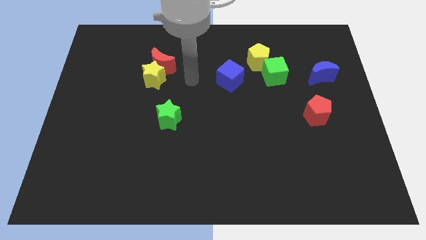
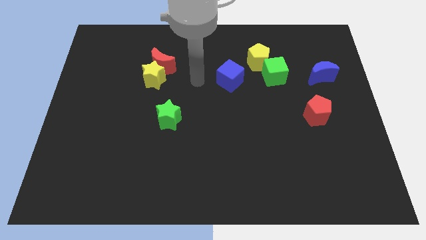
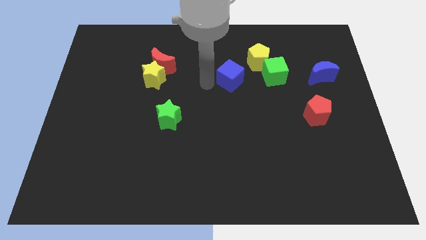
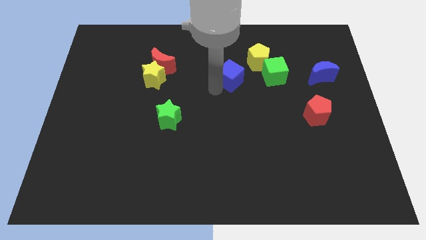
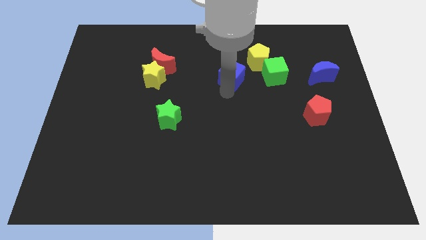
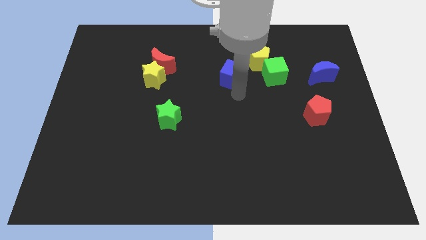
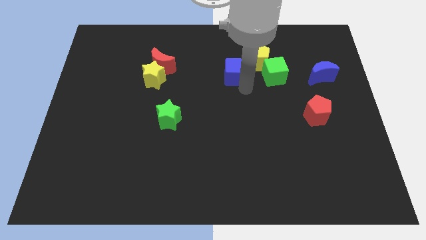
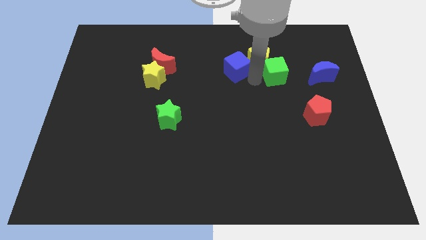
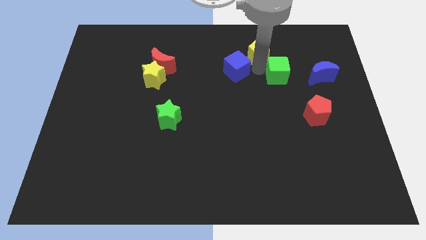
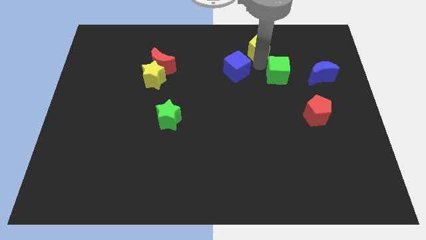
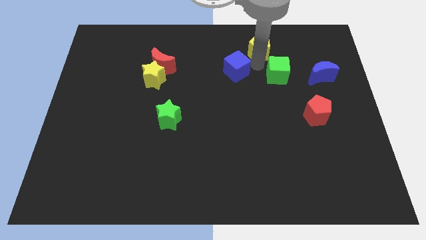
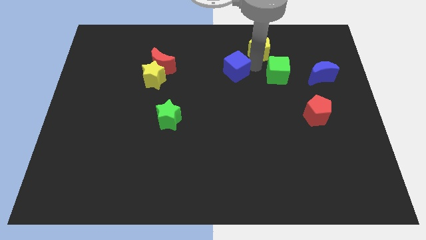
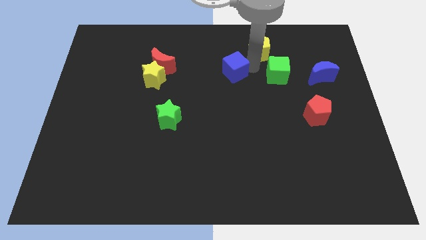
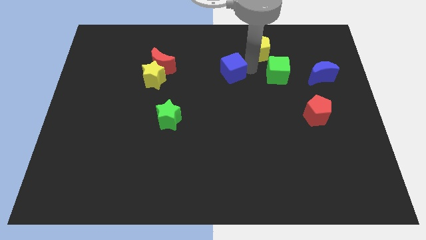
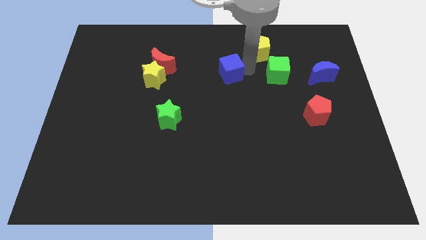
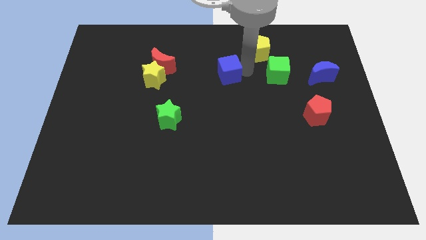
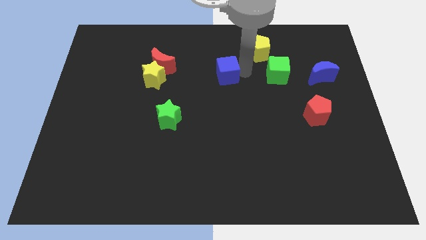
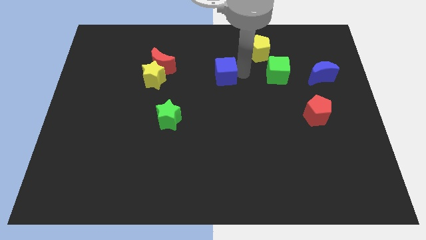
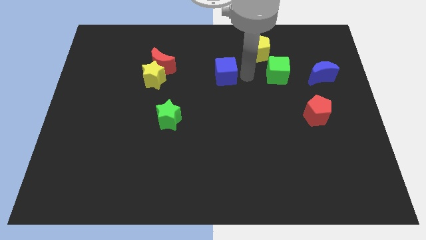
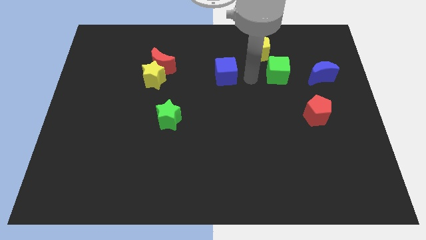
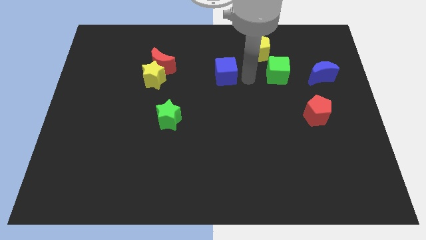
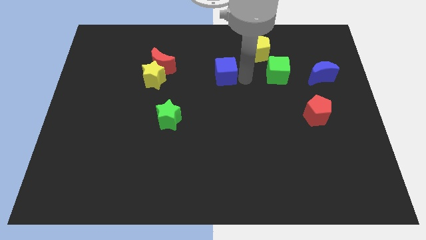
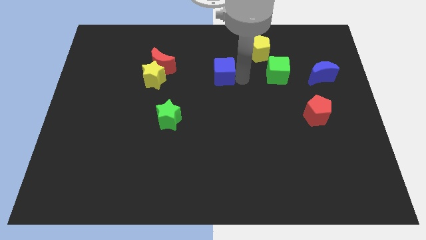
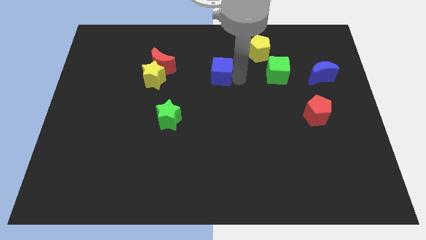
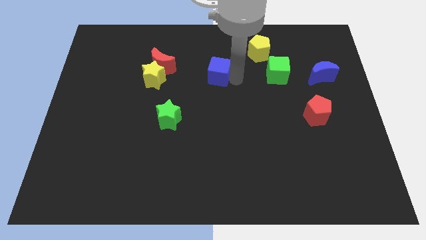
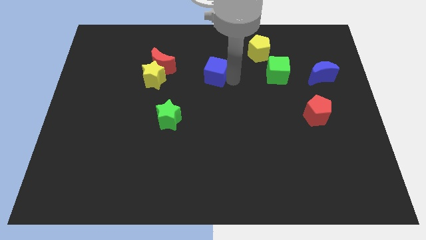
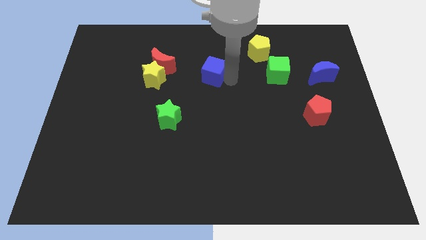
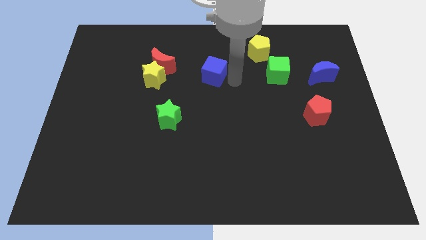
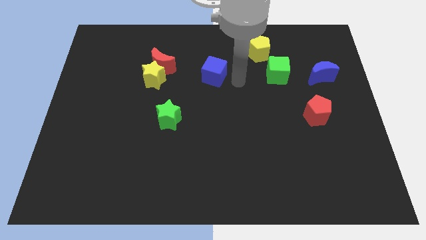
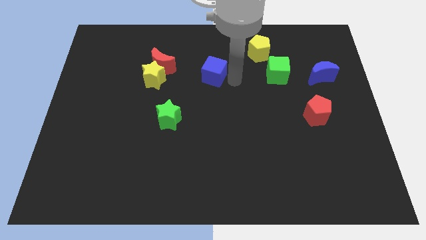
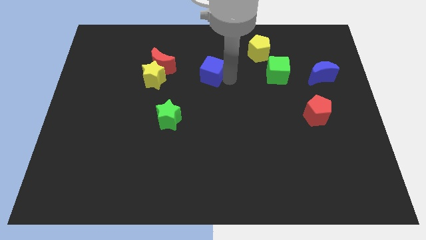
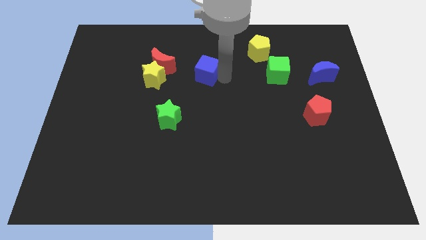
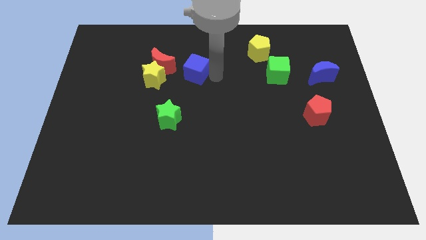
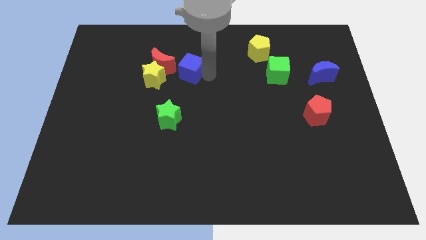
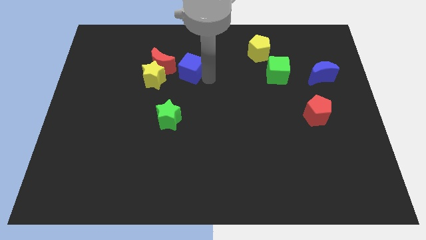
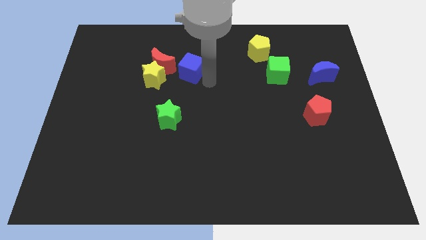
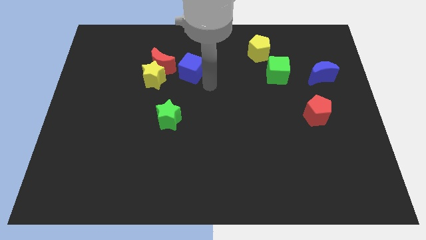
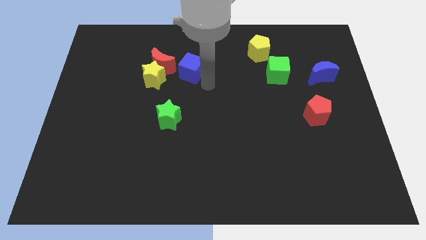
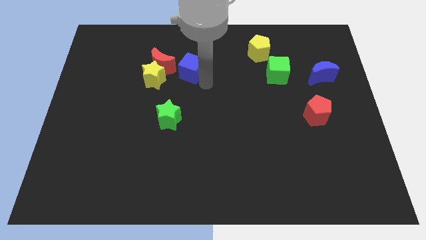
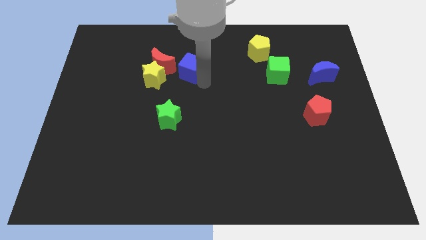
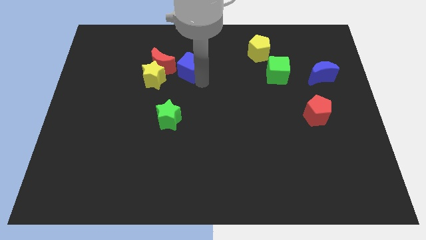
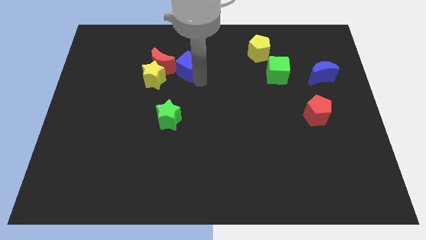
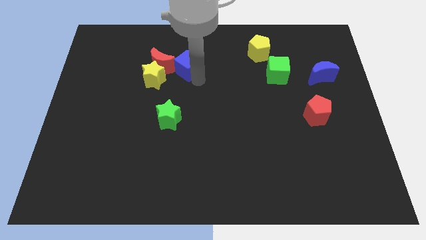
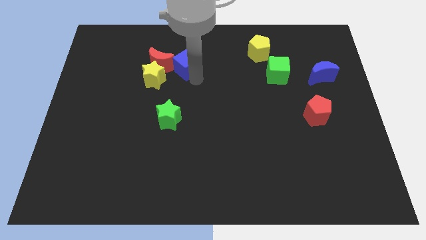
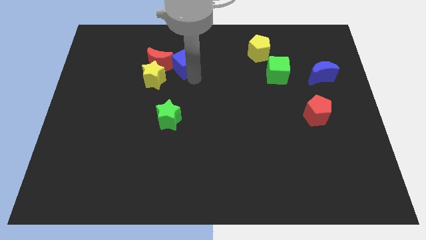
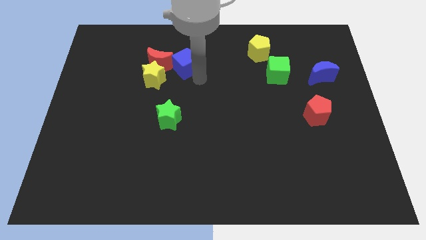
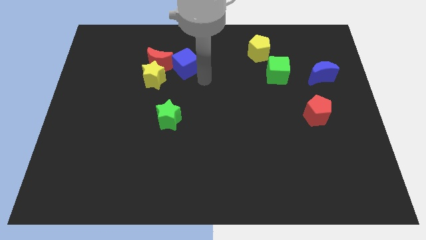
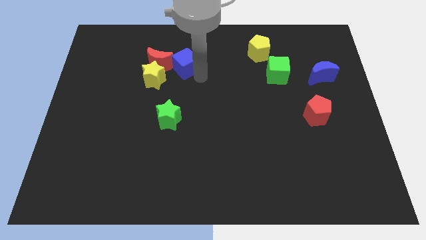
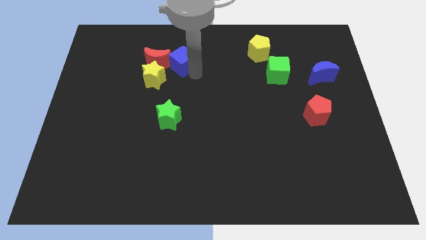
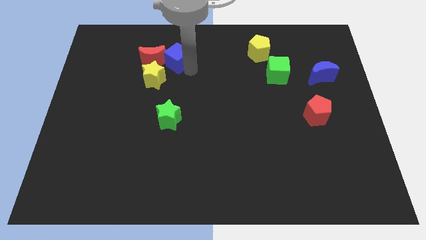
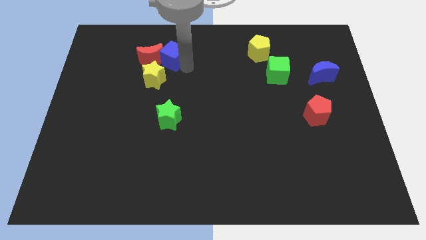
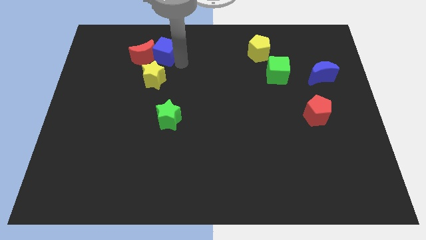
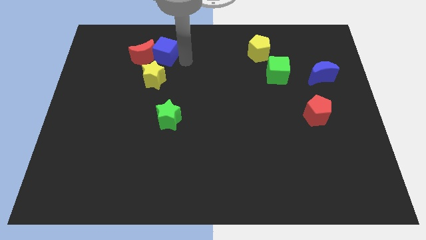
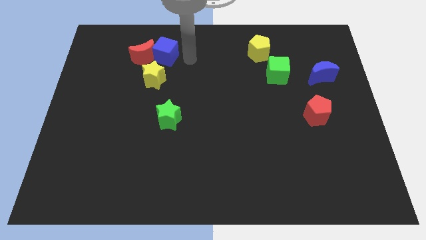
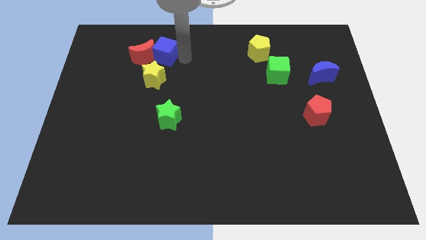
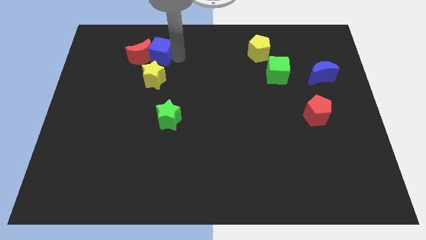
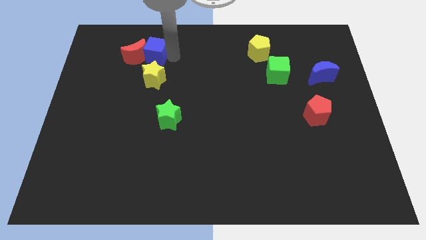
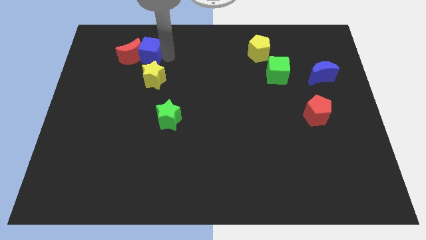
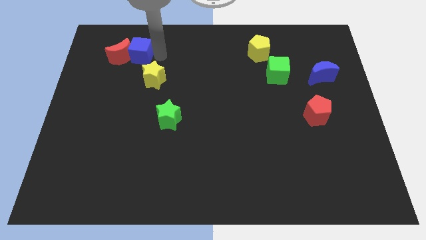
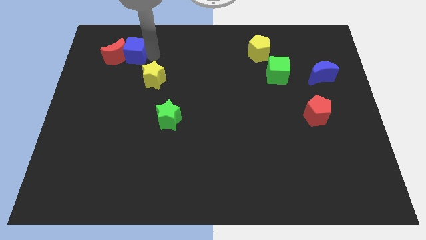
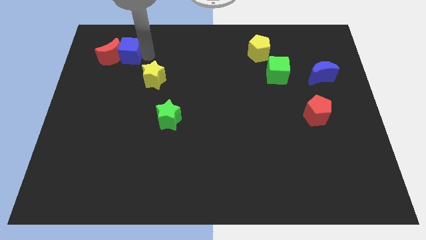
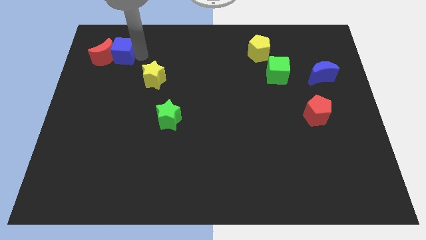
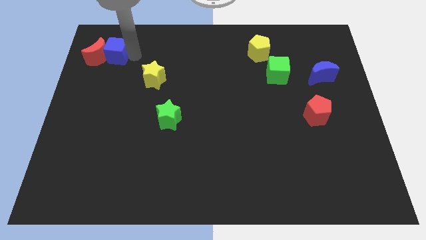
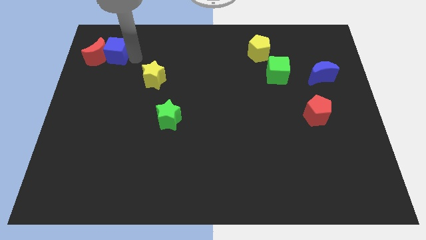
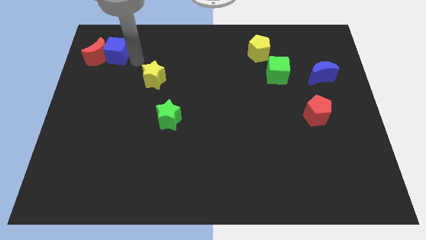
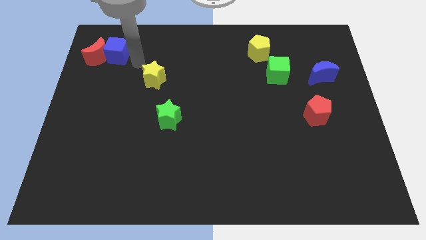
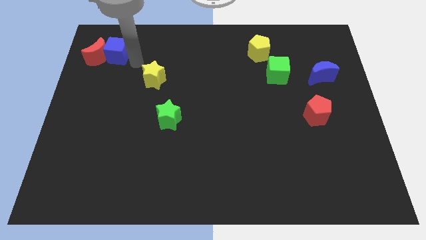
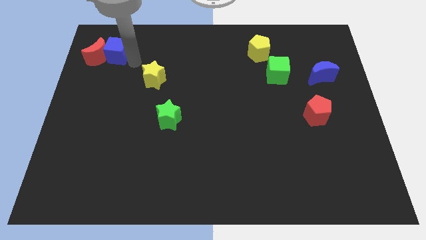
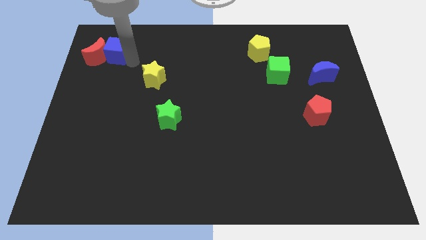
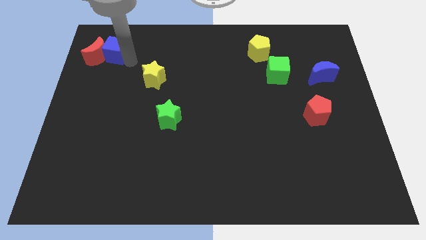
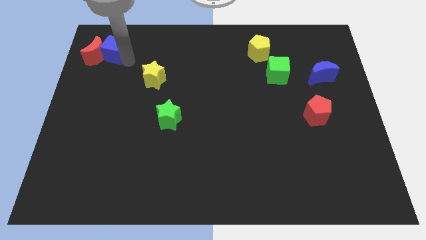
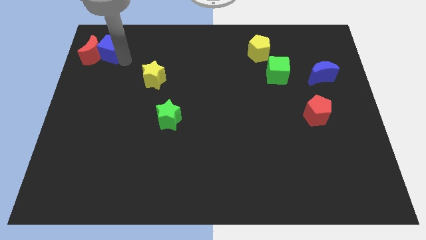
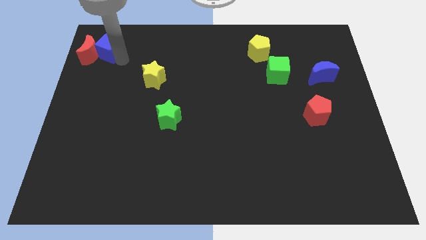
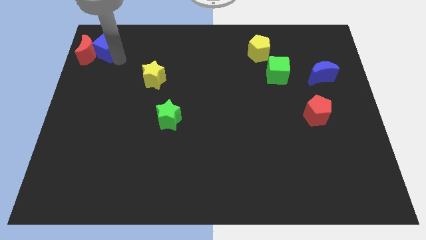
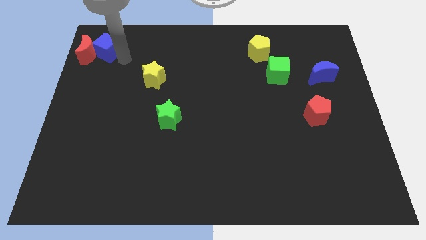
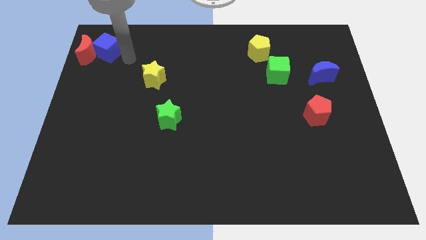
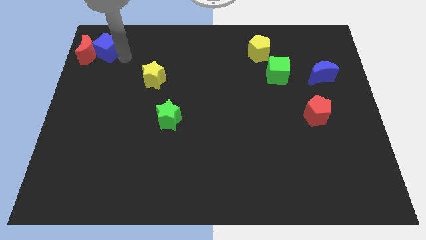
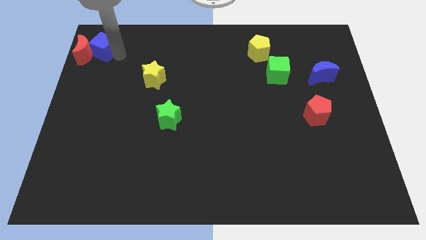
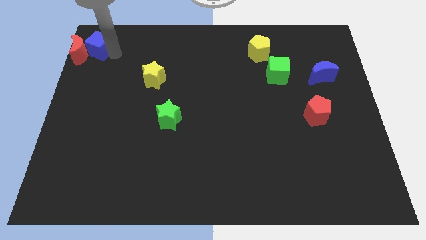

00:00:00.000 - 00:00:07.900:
slide the blue cube to the top left
